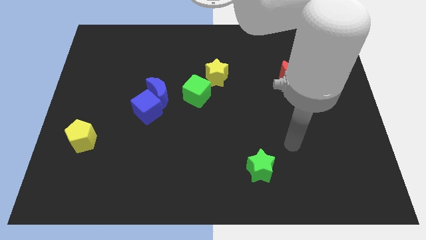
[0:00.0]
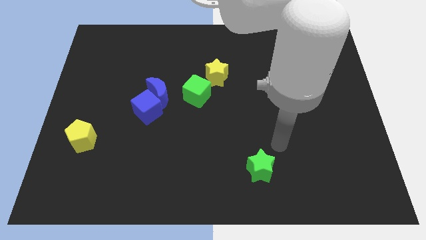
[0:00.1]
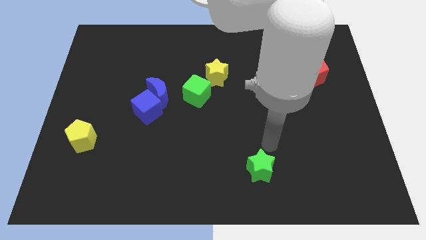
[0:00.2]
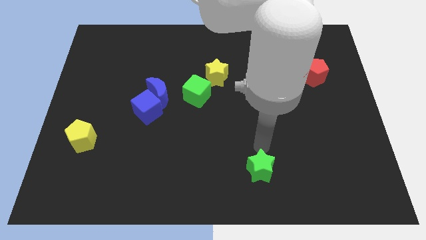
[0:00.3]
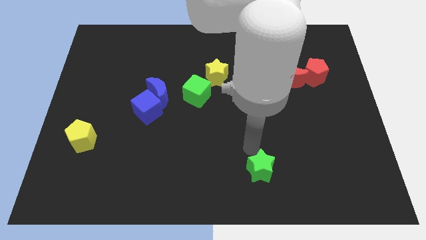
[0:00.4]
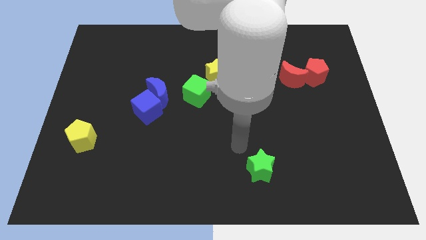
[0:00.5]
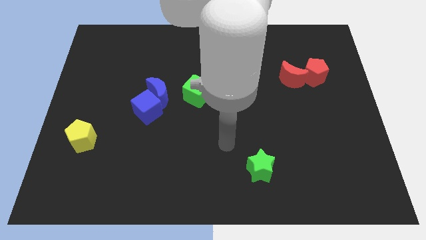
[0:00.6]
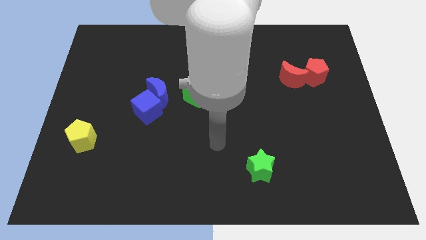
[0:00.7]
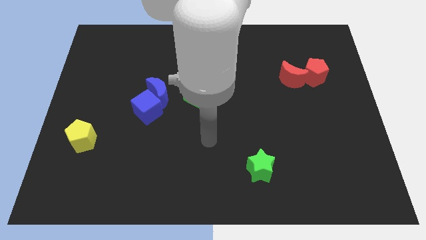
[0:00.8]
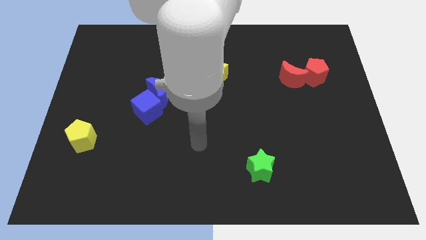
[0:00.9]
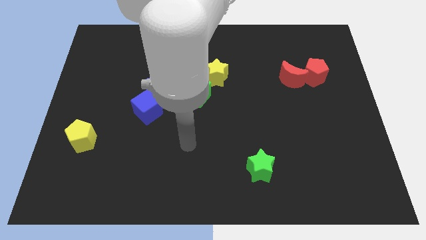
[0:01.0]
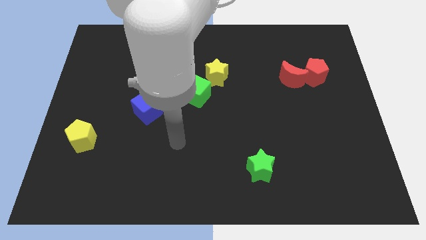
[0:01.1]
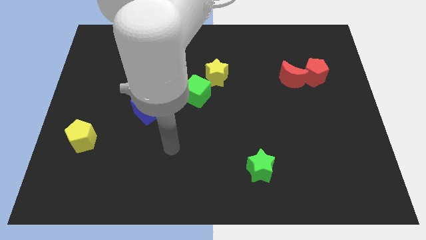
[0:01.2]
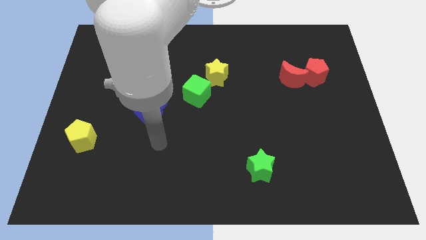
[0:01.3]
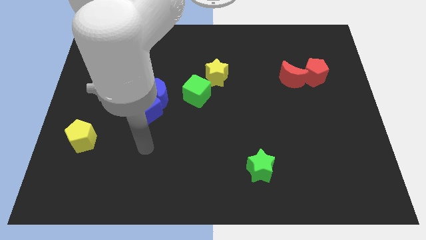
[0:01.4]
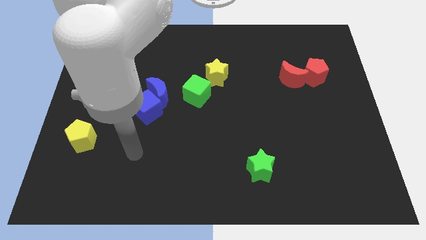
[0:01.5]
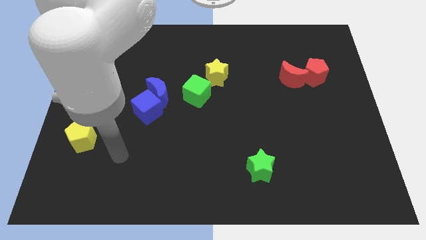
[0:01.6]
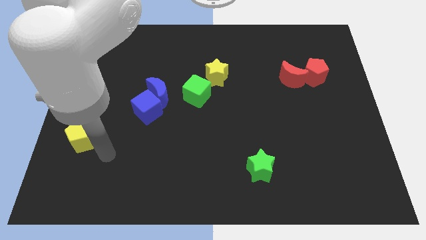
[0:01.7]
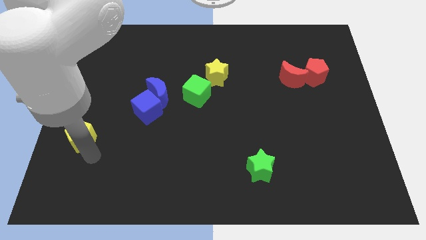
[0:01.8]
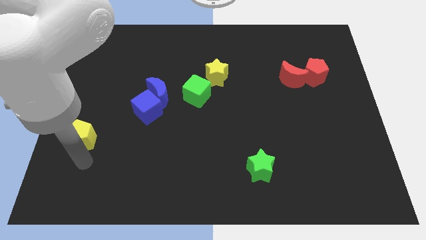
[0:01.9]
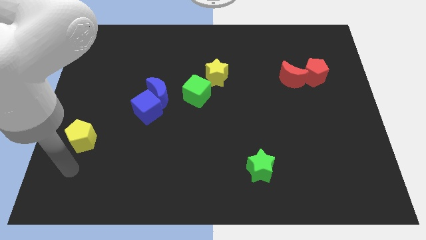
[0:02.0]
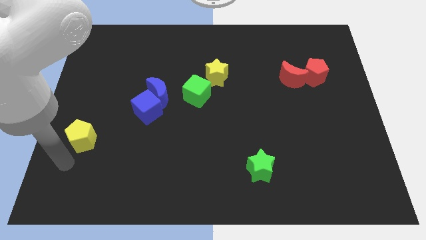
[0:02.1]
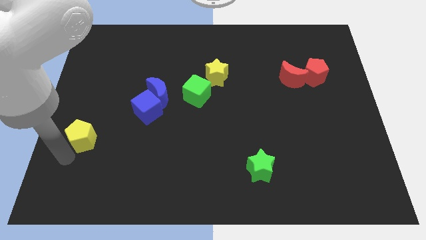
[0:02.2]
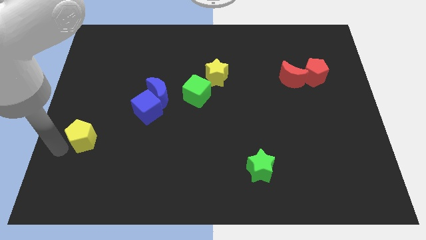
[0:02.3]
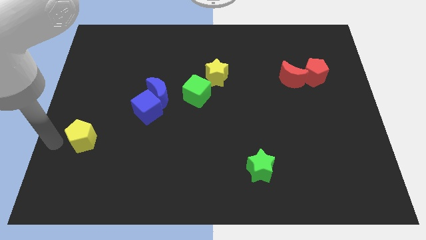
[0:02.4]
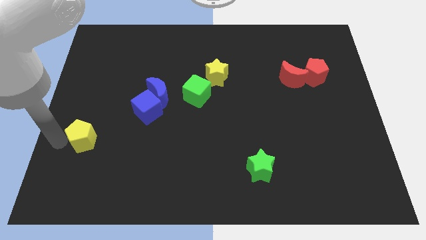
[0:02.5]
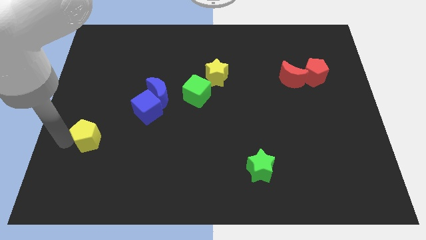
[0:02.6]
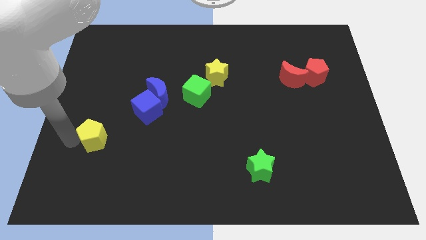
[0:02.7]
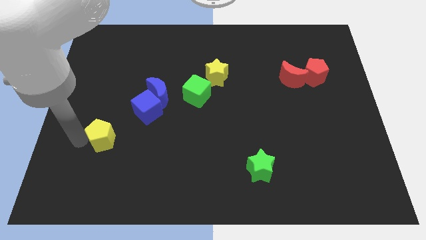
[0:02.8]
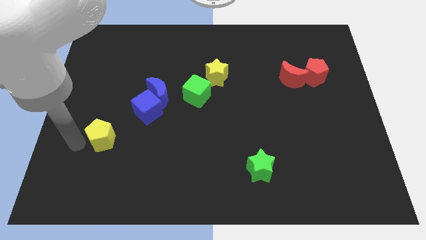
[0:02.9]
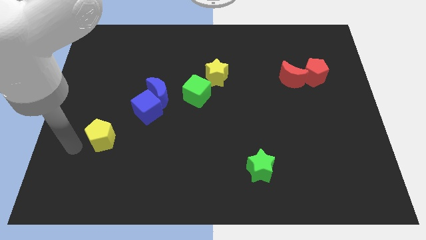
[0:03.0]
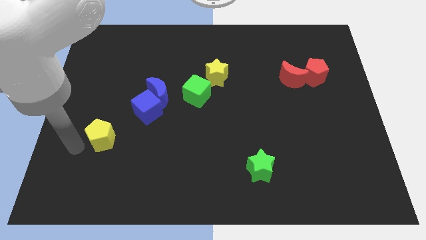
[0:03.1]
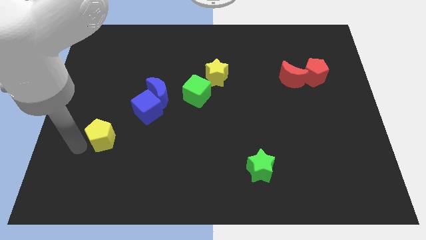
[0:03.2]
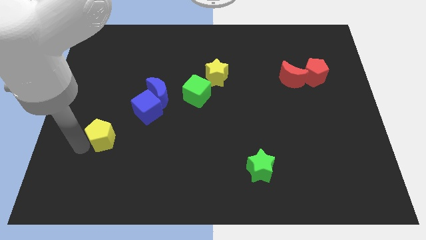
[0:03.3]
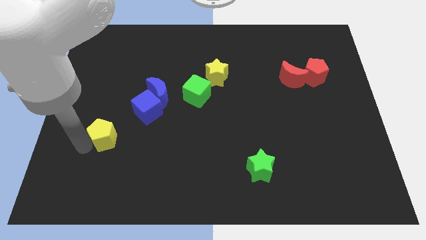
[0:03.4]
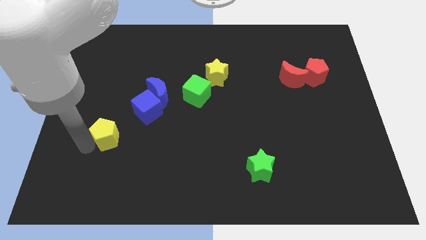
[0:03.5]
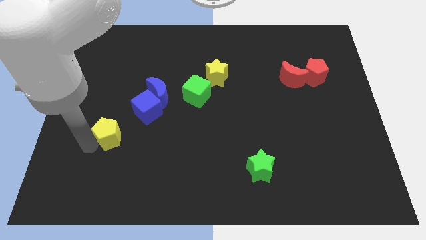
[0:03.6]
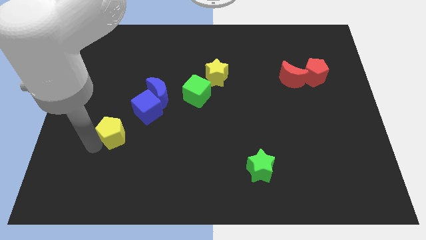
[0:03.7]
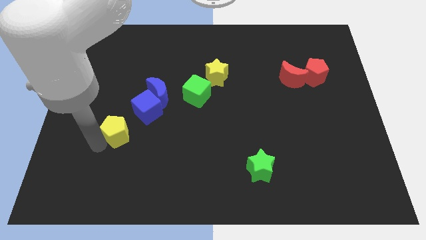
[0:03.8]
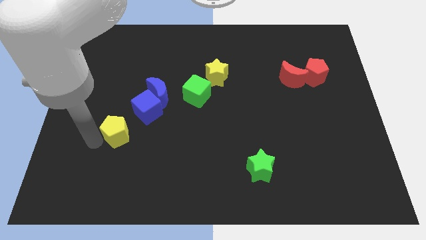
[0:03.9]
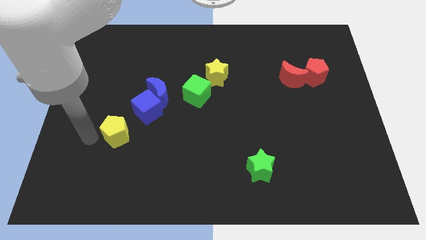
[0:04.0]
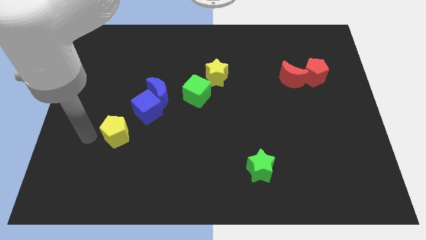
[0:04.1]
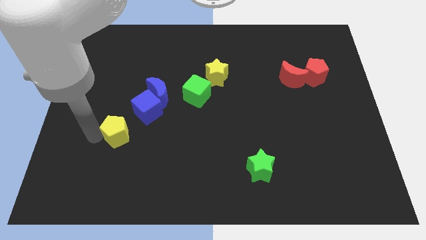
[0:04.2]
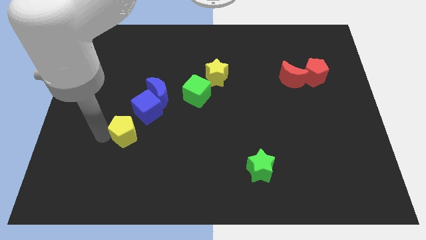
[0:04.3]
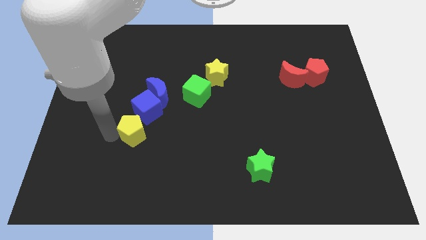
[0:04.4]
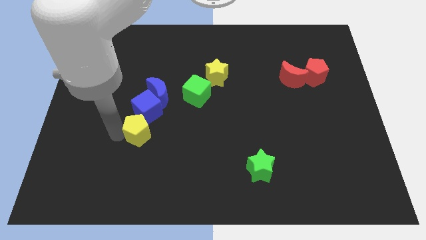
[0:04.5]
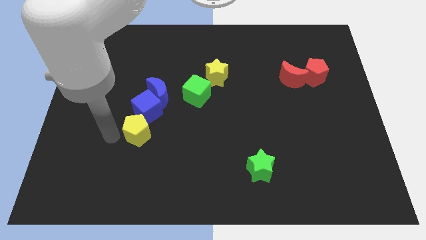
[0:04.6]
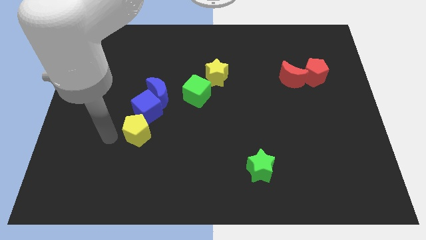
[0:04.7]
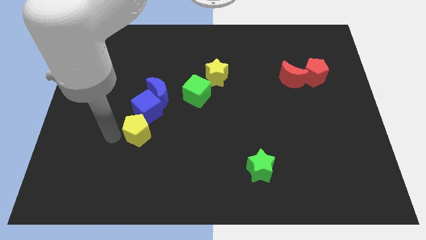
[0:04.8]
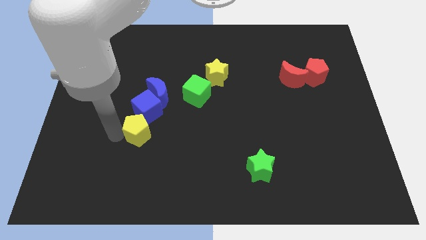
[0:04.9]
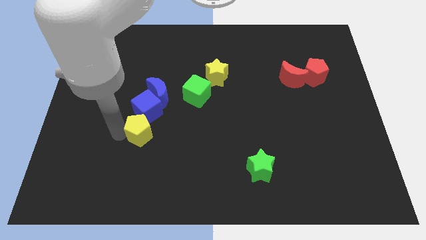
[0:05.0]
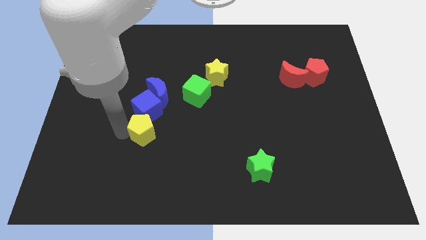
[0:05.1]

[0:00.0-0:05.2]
slide the yellow pentagon to the bottom right of the blue cube

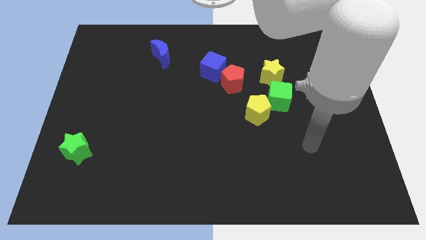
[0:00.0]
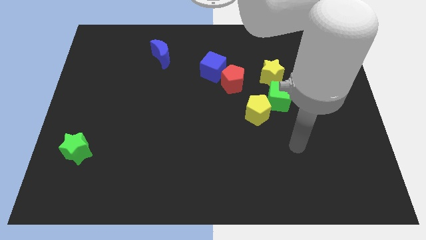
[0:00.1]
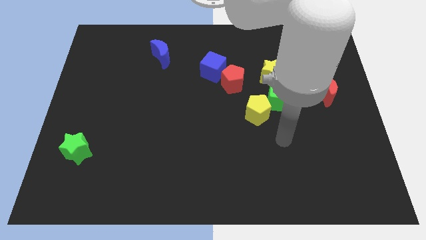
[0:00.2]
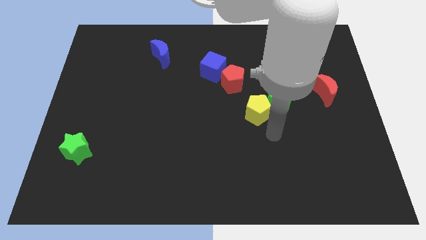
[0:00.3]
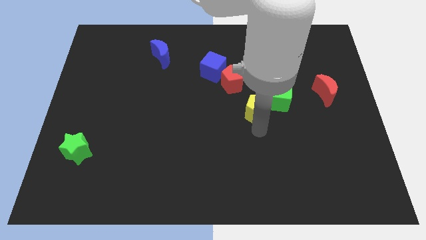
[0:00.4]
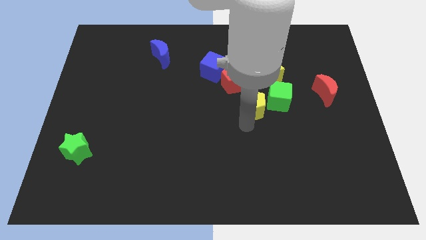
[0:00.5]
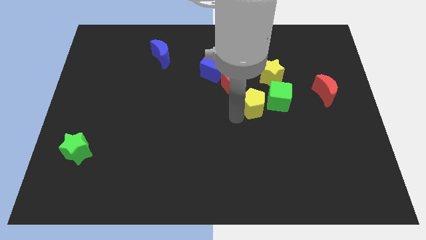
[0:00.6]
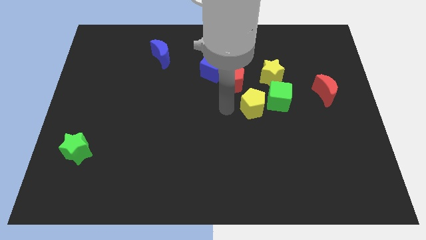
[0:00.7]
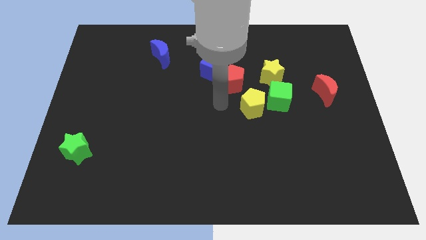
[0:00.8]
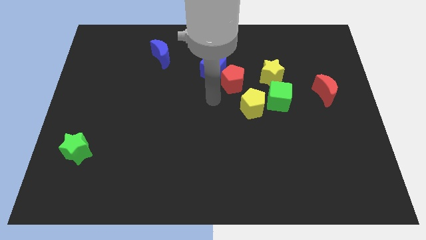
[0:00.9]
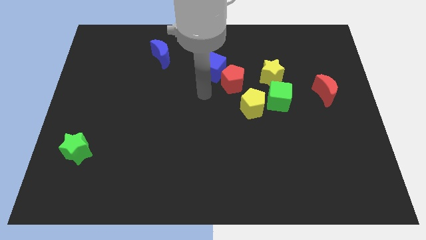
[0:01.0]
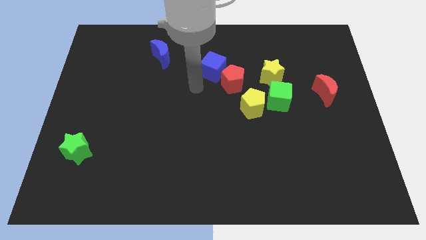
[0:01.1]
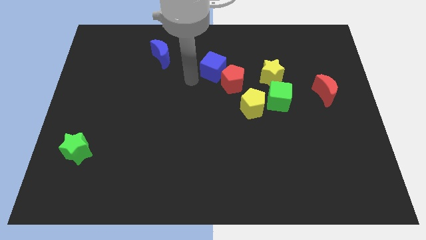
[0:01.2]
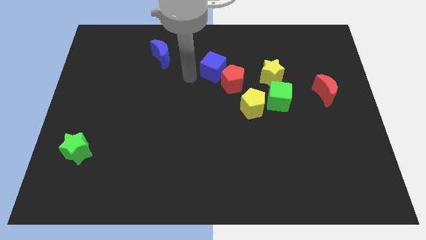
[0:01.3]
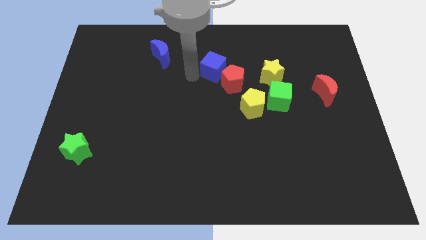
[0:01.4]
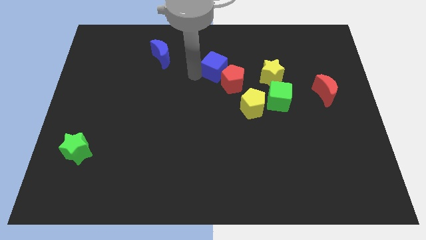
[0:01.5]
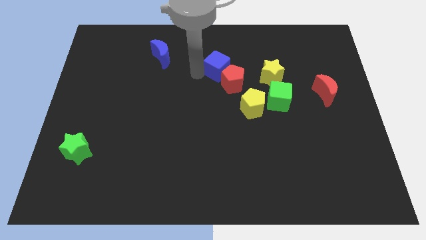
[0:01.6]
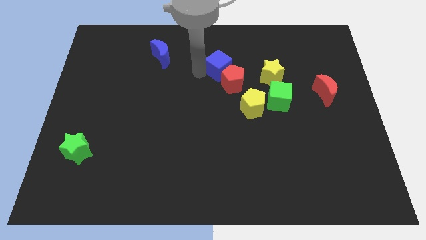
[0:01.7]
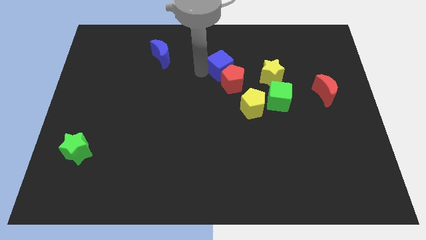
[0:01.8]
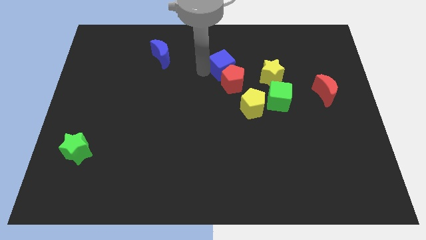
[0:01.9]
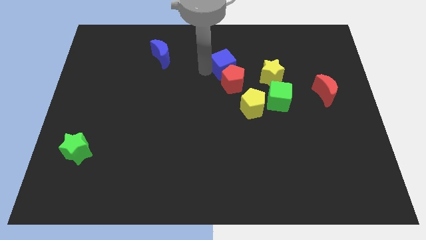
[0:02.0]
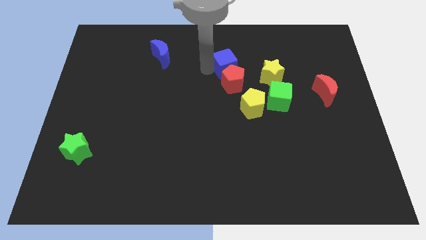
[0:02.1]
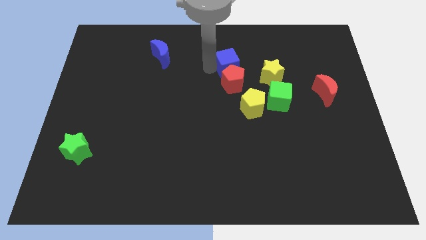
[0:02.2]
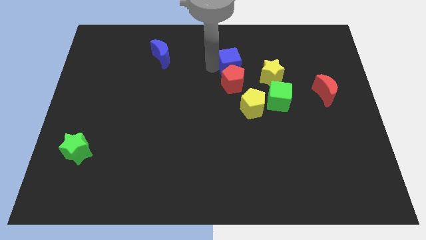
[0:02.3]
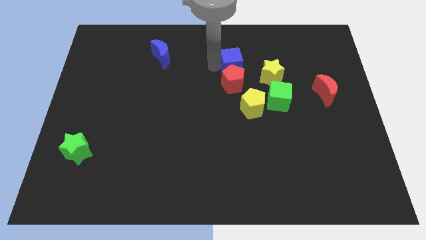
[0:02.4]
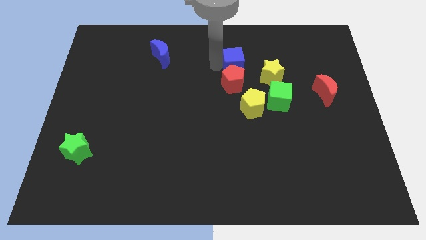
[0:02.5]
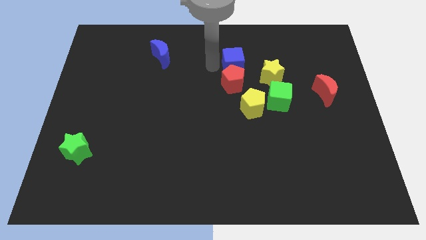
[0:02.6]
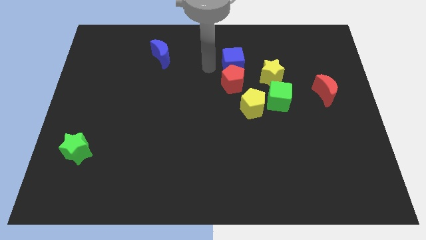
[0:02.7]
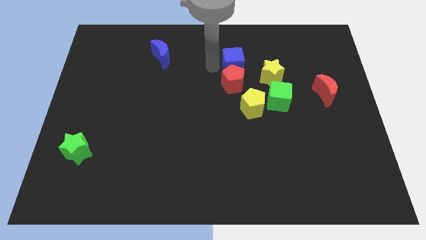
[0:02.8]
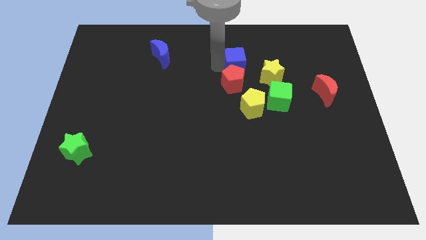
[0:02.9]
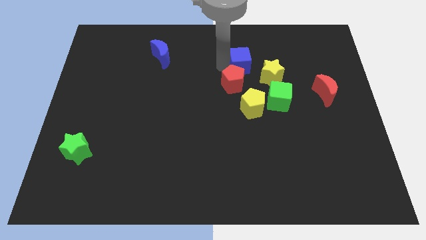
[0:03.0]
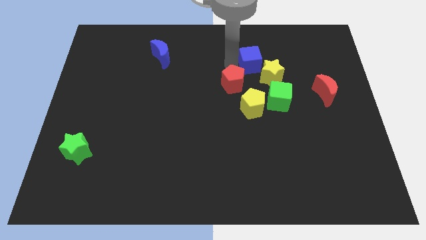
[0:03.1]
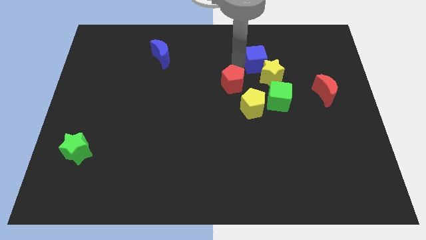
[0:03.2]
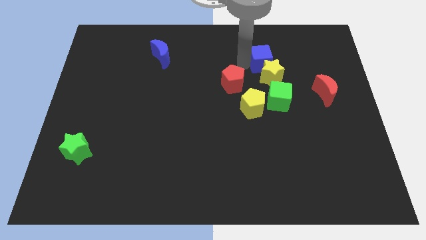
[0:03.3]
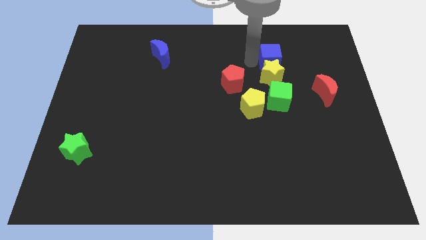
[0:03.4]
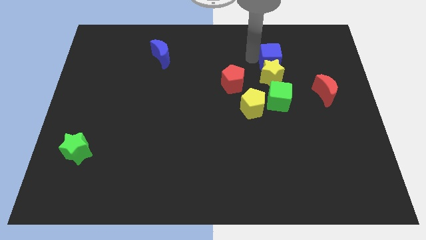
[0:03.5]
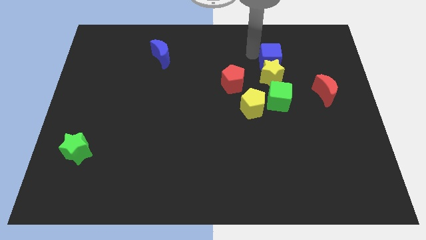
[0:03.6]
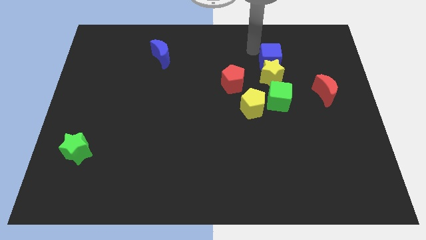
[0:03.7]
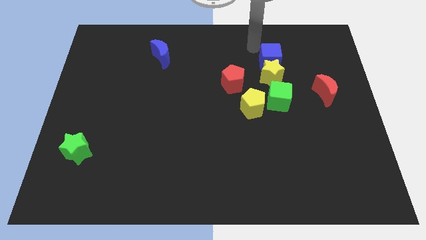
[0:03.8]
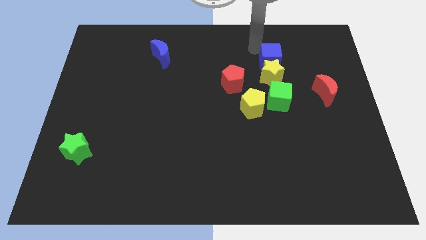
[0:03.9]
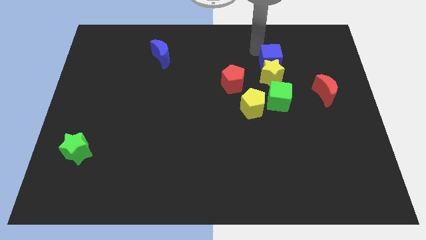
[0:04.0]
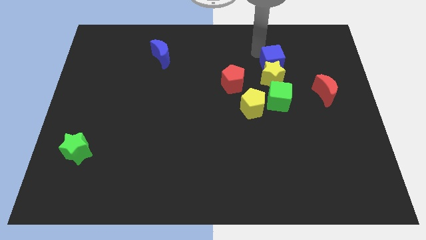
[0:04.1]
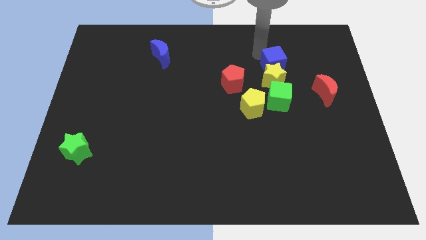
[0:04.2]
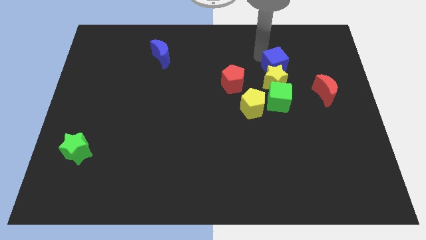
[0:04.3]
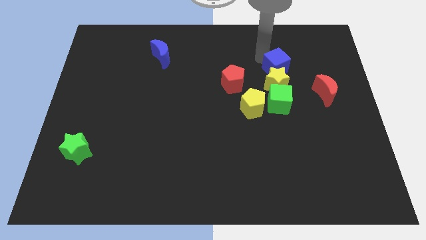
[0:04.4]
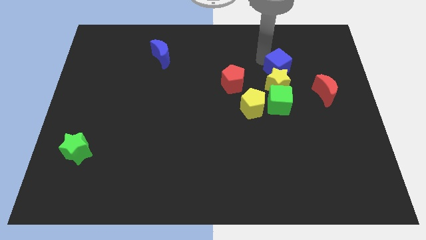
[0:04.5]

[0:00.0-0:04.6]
put the blue cube to the right of the red pentagon
